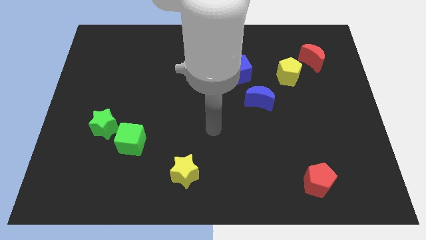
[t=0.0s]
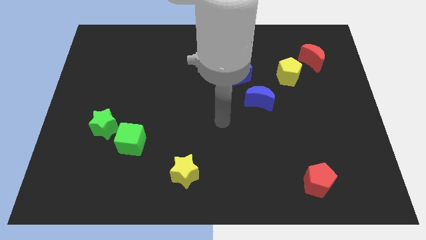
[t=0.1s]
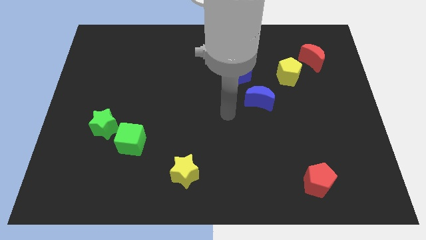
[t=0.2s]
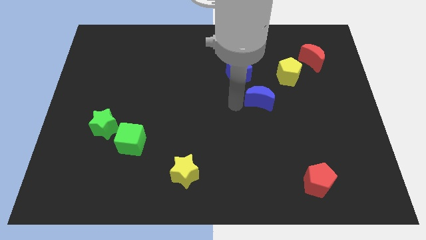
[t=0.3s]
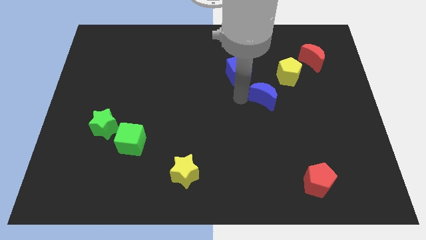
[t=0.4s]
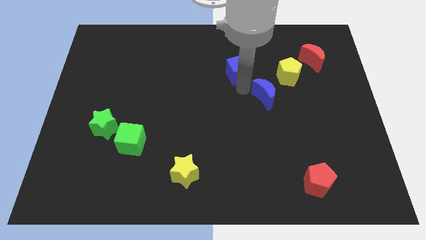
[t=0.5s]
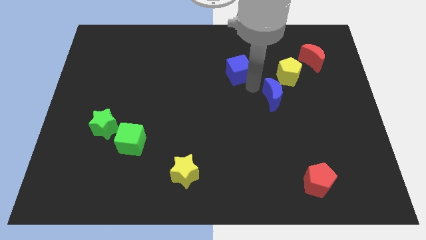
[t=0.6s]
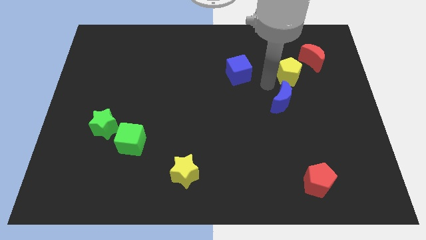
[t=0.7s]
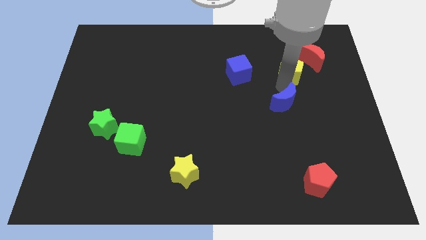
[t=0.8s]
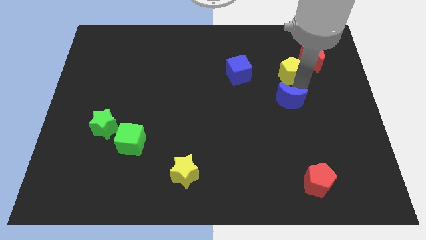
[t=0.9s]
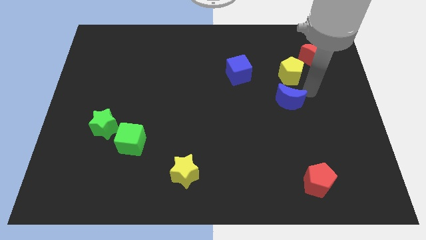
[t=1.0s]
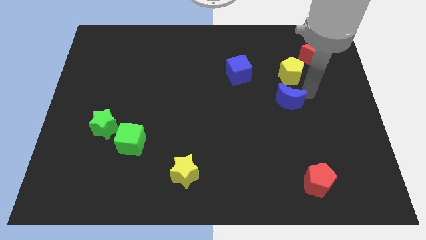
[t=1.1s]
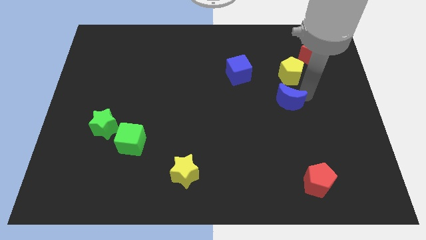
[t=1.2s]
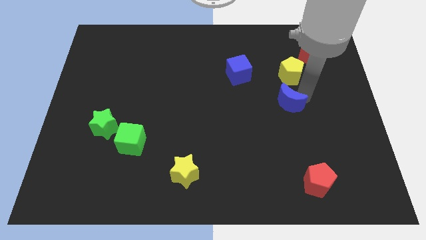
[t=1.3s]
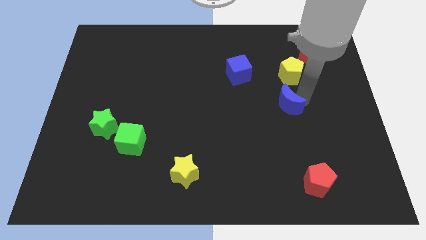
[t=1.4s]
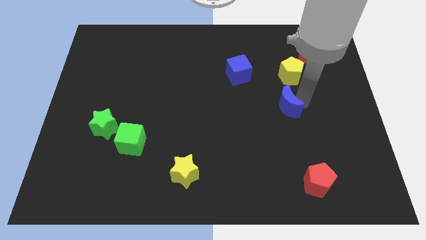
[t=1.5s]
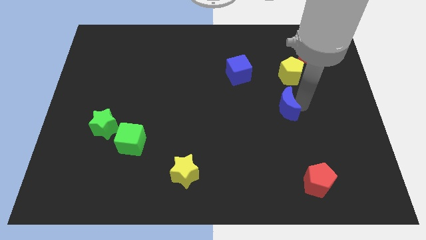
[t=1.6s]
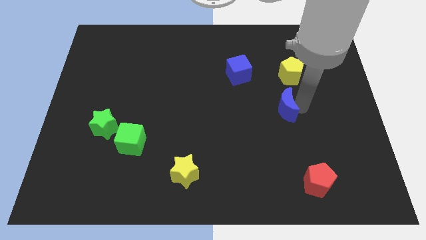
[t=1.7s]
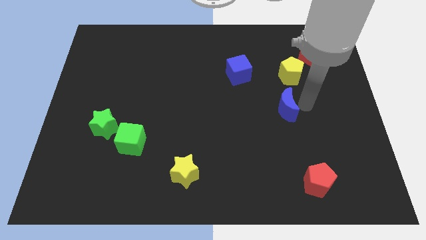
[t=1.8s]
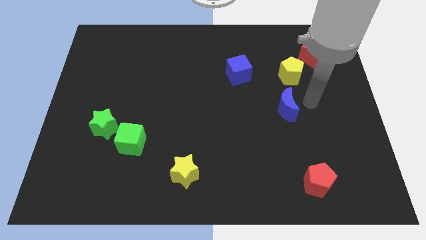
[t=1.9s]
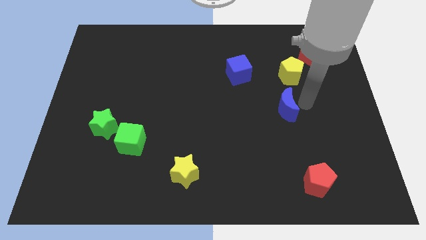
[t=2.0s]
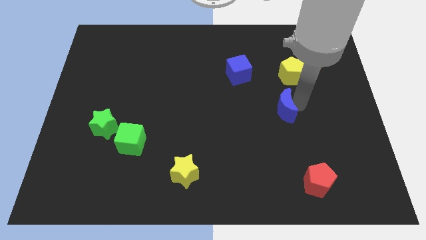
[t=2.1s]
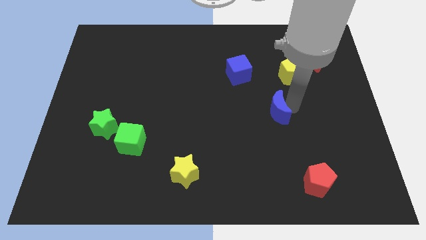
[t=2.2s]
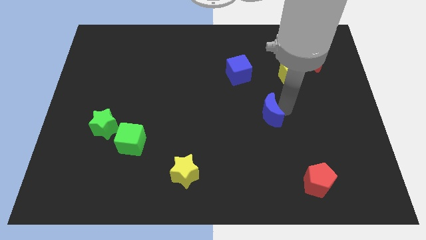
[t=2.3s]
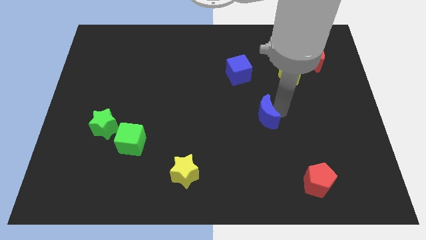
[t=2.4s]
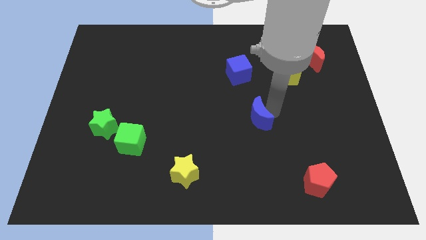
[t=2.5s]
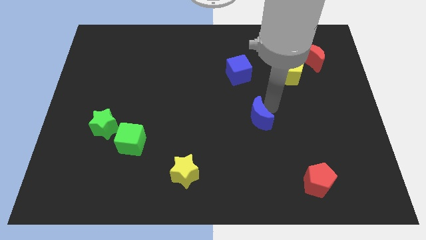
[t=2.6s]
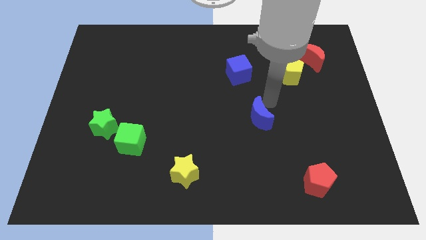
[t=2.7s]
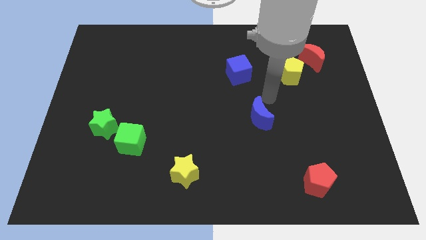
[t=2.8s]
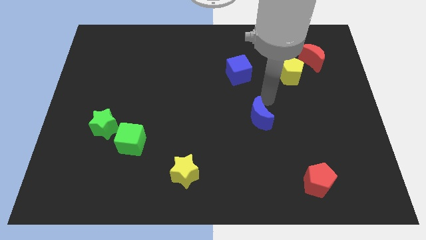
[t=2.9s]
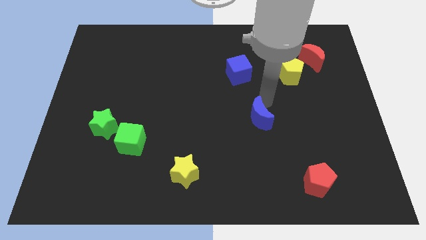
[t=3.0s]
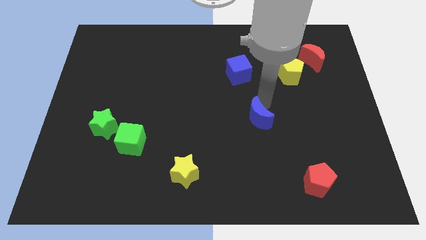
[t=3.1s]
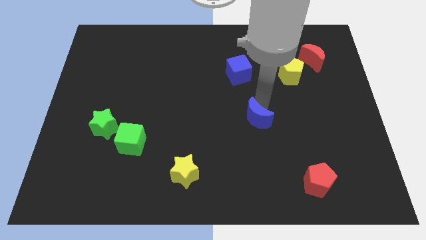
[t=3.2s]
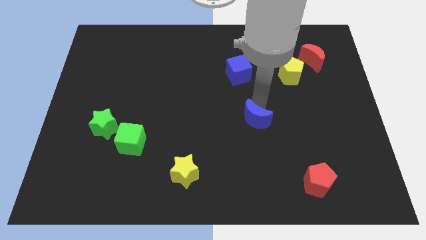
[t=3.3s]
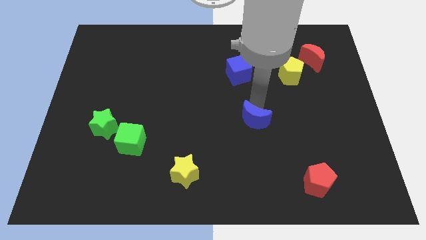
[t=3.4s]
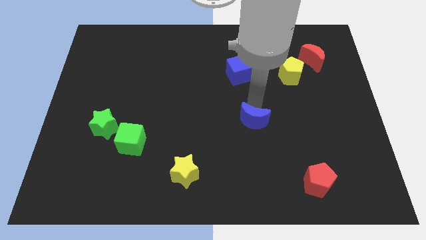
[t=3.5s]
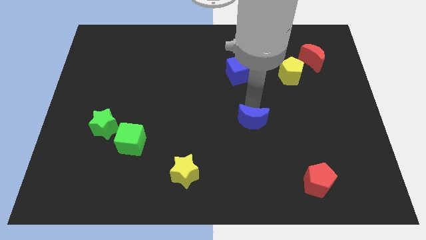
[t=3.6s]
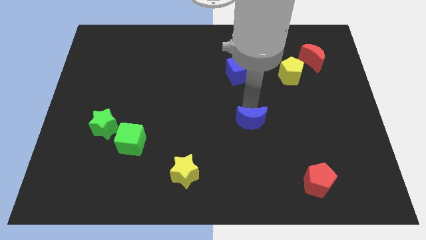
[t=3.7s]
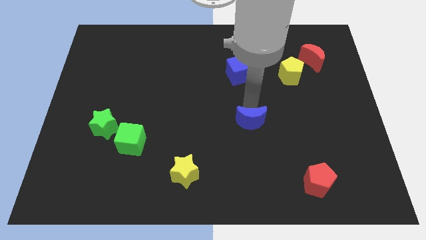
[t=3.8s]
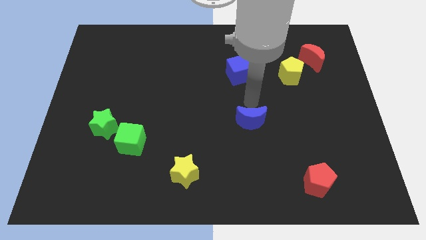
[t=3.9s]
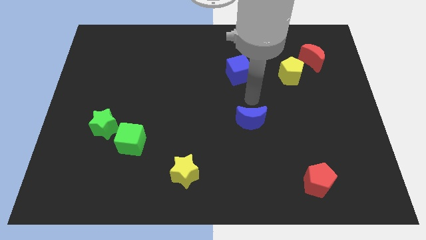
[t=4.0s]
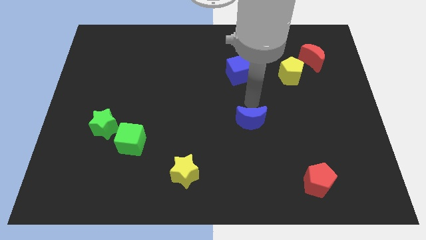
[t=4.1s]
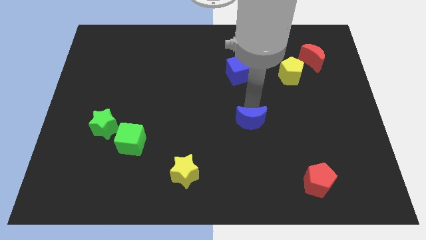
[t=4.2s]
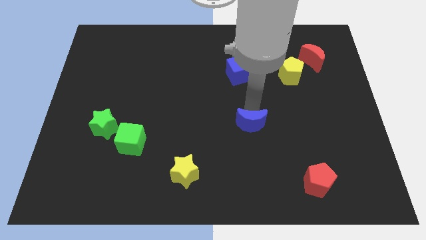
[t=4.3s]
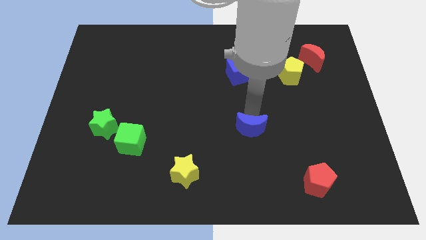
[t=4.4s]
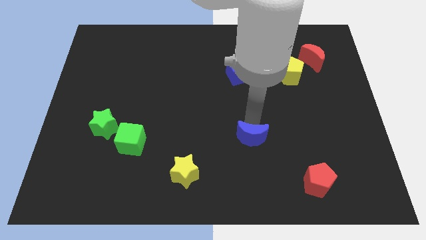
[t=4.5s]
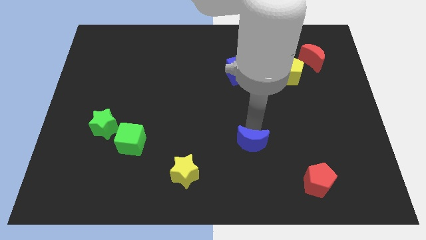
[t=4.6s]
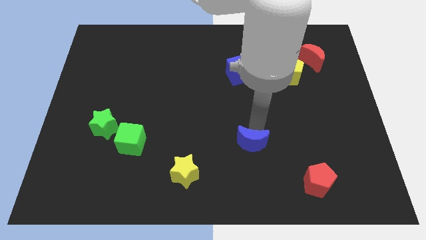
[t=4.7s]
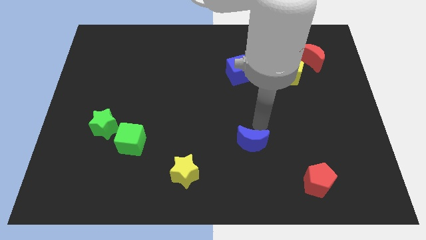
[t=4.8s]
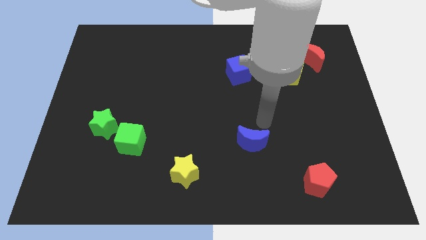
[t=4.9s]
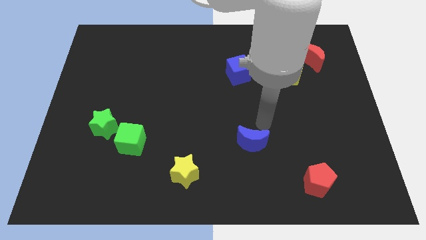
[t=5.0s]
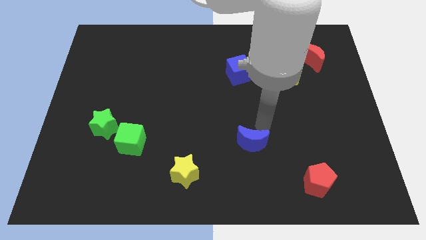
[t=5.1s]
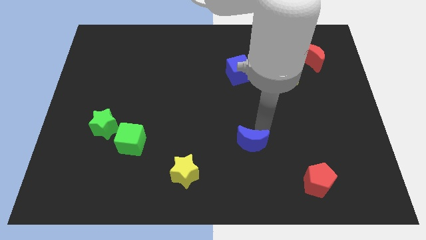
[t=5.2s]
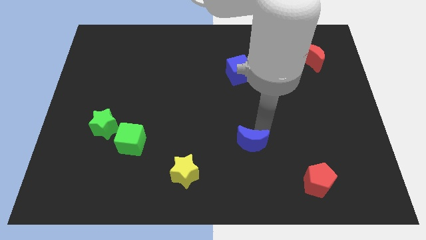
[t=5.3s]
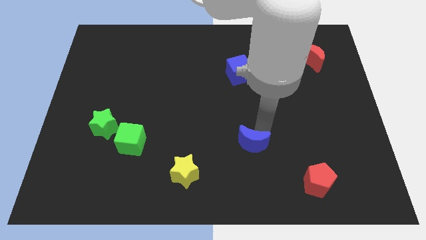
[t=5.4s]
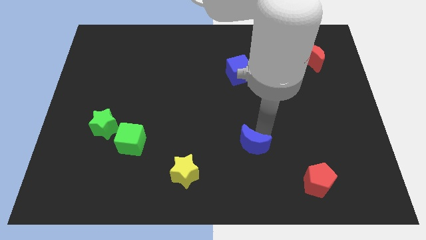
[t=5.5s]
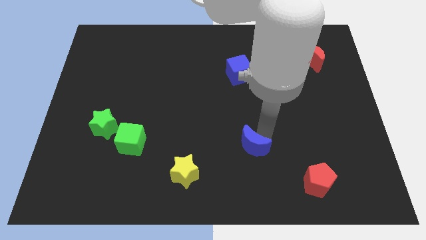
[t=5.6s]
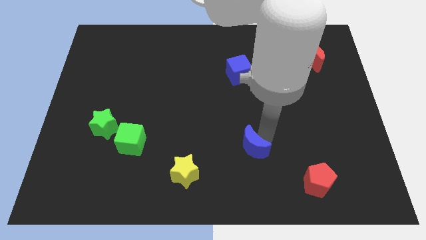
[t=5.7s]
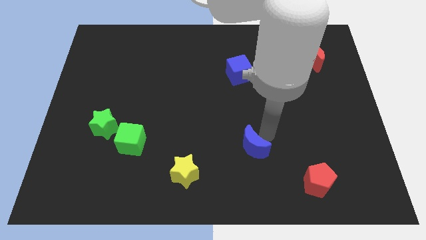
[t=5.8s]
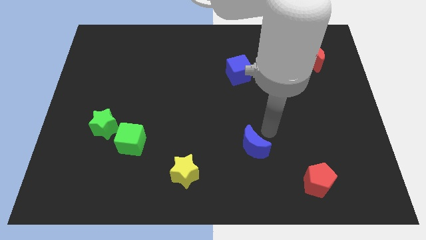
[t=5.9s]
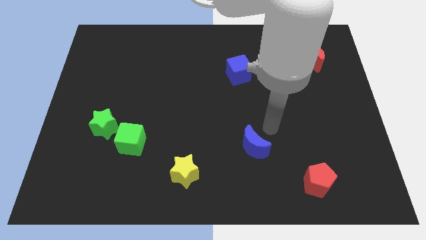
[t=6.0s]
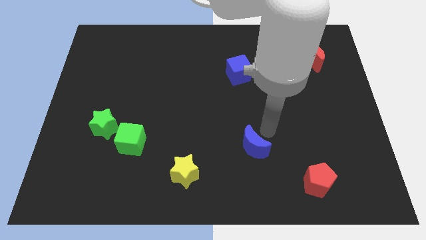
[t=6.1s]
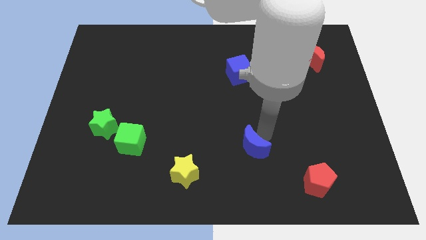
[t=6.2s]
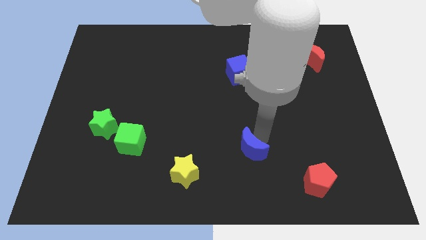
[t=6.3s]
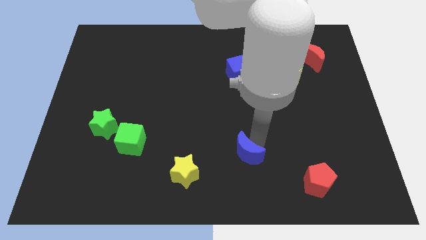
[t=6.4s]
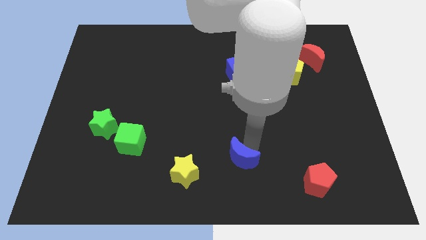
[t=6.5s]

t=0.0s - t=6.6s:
slide the blue moon to the bottom side
